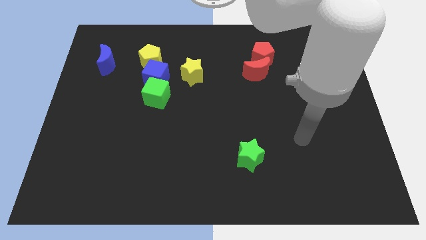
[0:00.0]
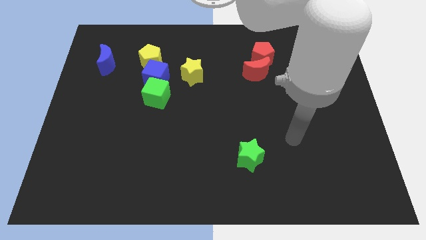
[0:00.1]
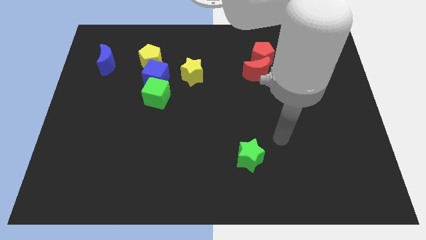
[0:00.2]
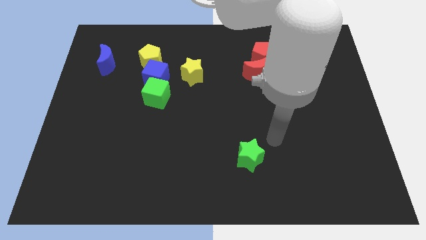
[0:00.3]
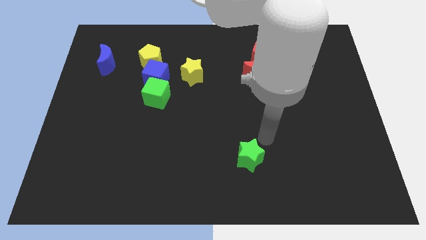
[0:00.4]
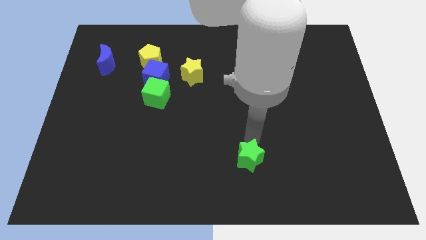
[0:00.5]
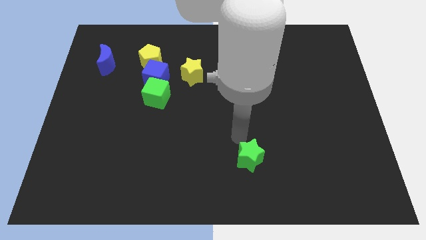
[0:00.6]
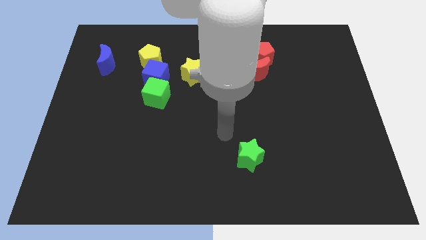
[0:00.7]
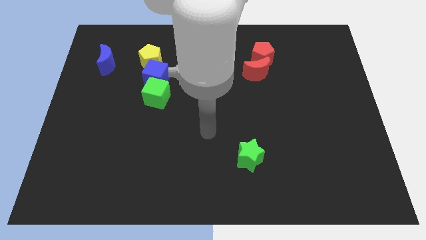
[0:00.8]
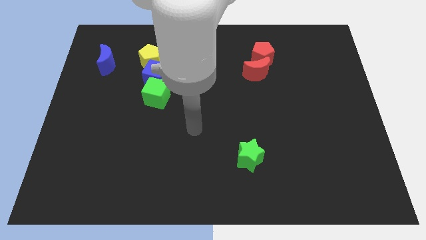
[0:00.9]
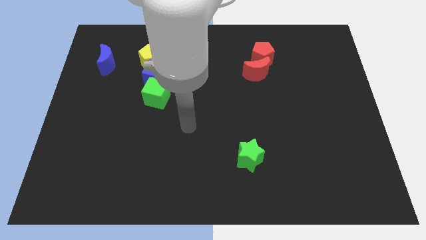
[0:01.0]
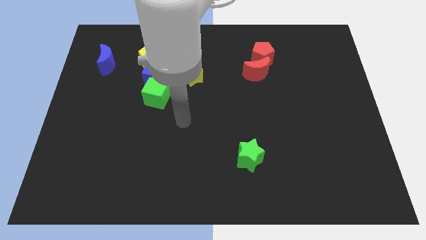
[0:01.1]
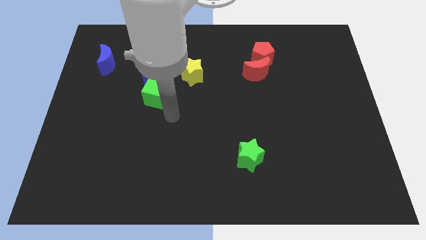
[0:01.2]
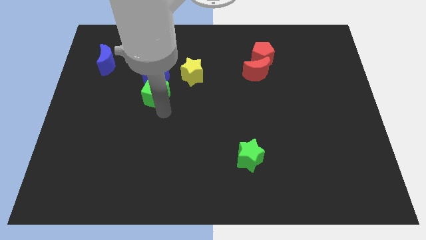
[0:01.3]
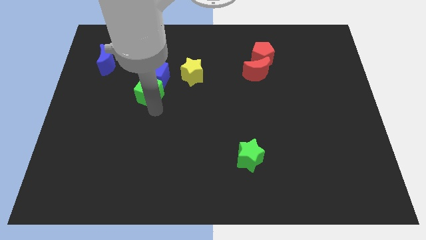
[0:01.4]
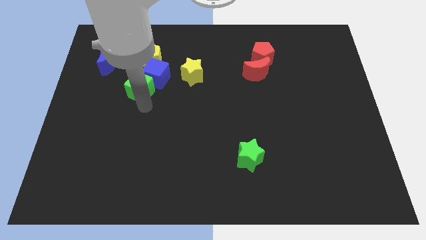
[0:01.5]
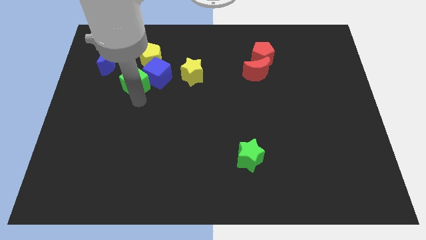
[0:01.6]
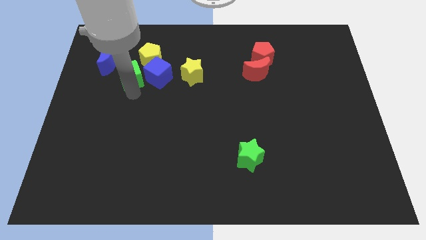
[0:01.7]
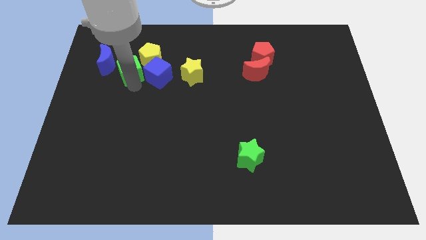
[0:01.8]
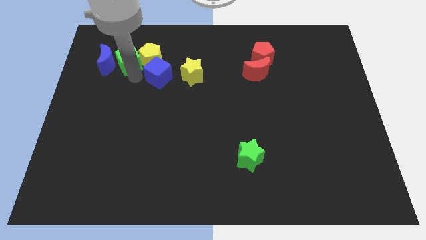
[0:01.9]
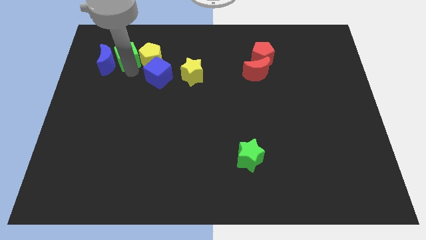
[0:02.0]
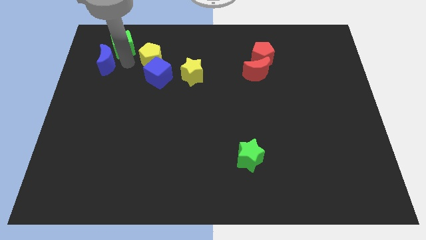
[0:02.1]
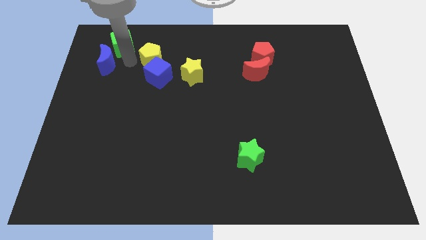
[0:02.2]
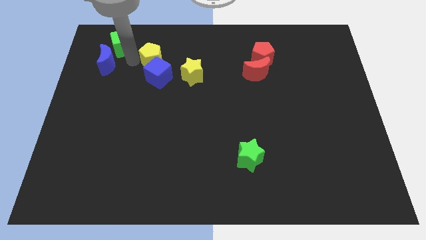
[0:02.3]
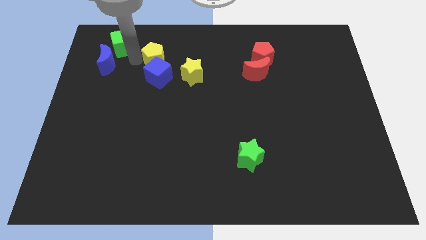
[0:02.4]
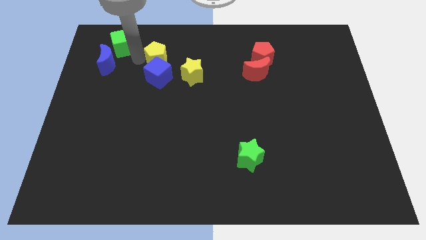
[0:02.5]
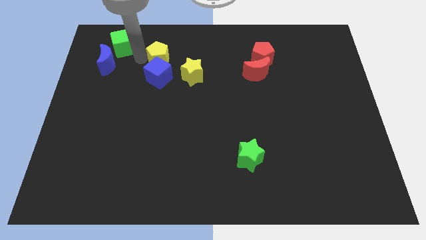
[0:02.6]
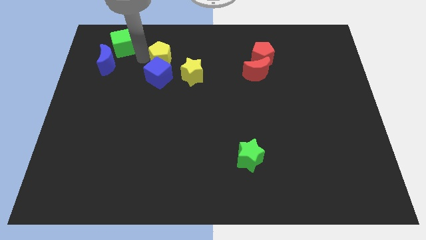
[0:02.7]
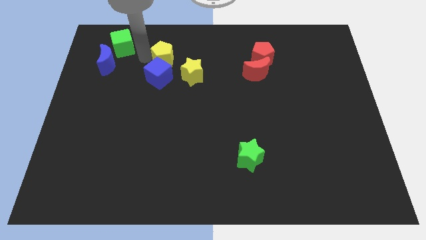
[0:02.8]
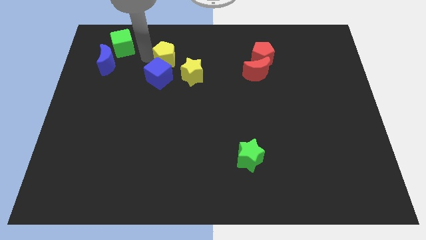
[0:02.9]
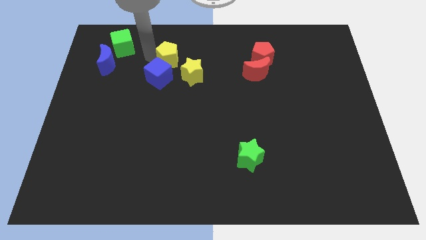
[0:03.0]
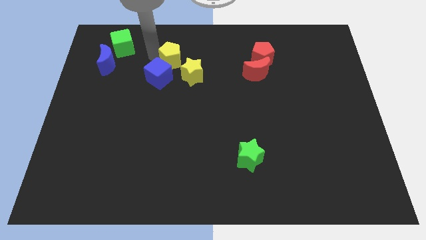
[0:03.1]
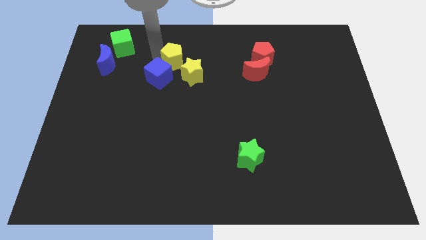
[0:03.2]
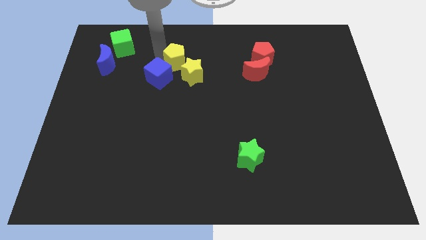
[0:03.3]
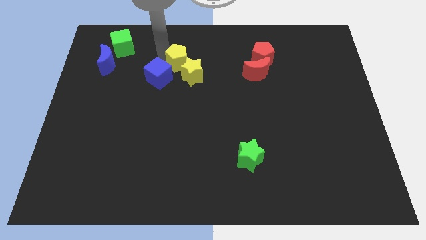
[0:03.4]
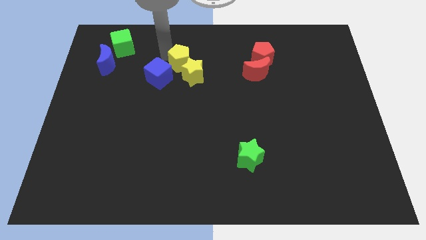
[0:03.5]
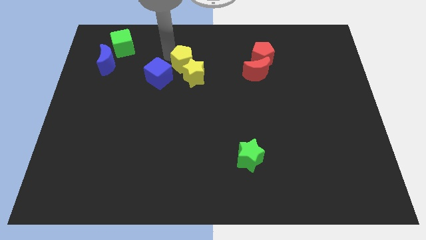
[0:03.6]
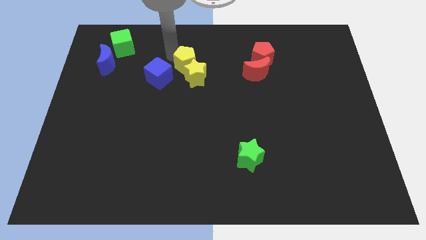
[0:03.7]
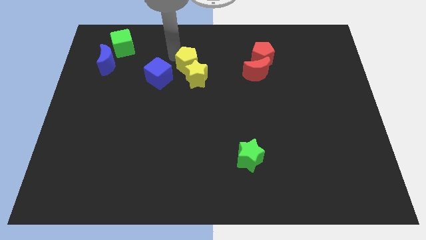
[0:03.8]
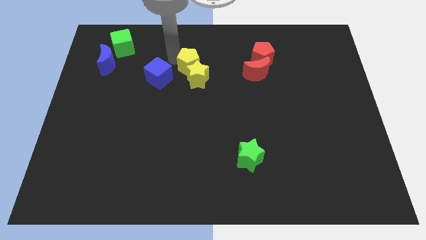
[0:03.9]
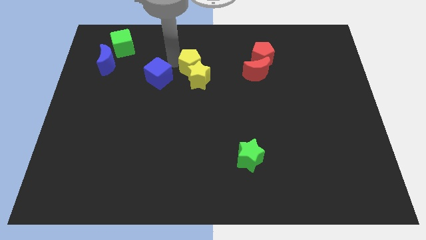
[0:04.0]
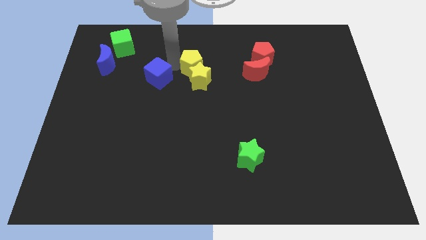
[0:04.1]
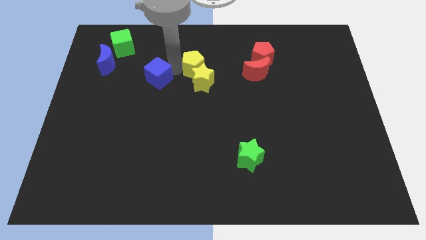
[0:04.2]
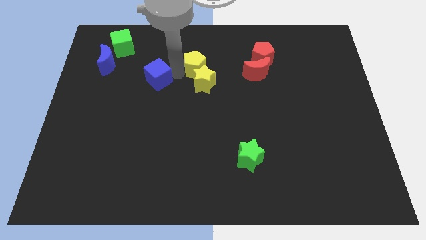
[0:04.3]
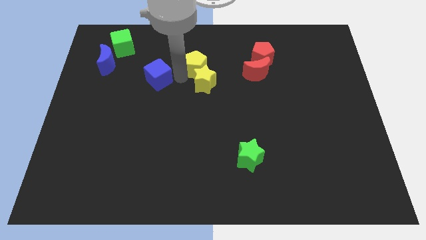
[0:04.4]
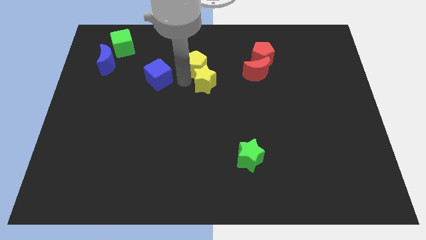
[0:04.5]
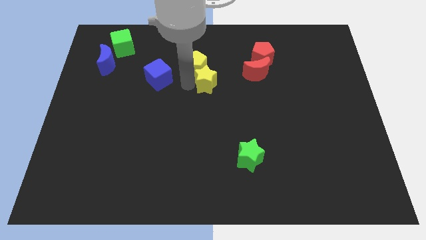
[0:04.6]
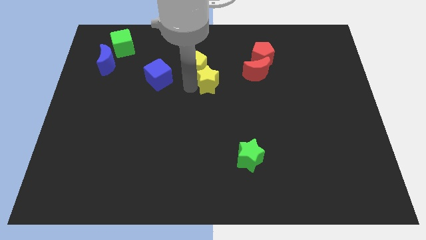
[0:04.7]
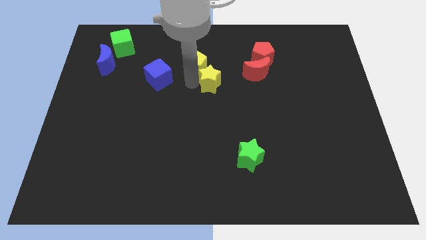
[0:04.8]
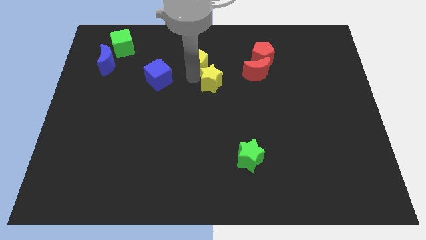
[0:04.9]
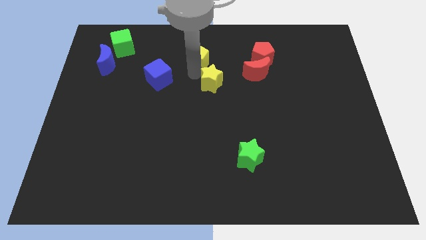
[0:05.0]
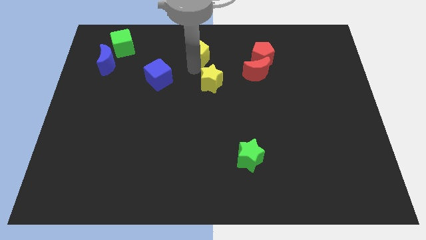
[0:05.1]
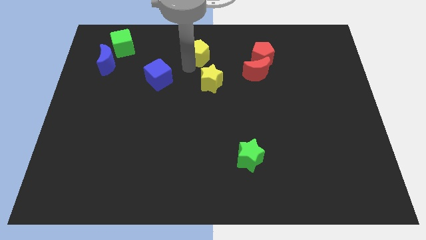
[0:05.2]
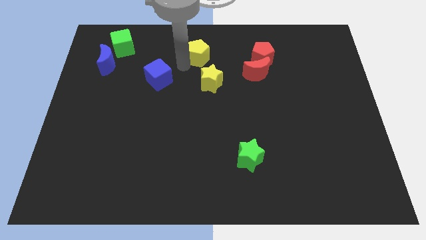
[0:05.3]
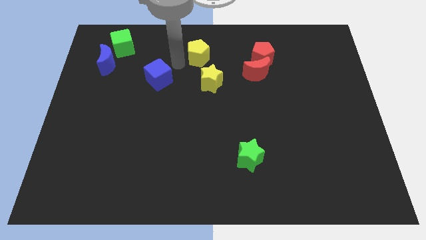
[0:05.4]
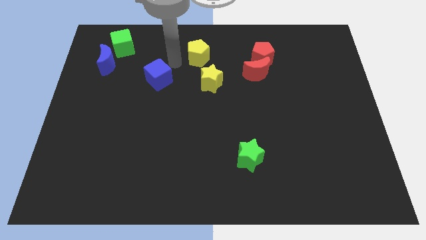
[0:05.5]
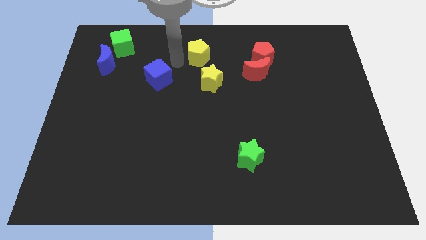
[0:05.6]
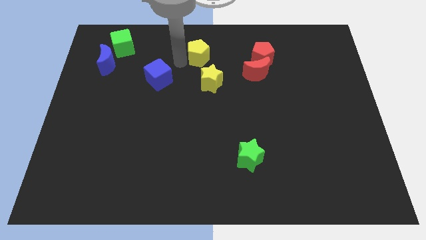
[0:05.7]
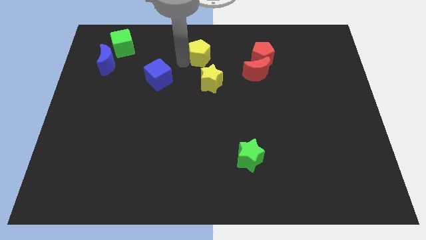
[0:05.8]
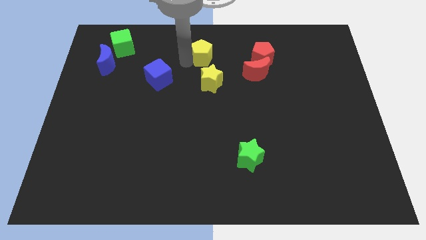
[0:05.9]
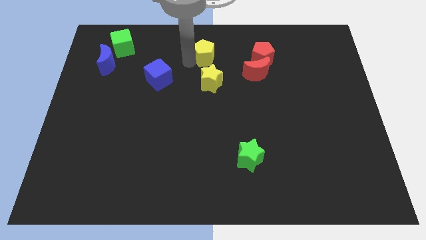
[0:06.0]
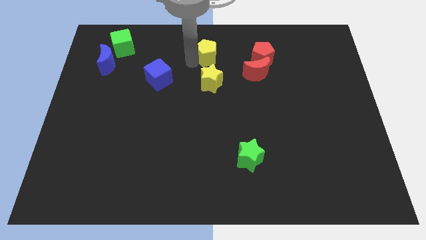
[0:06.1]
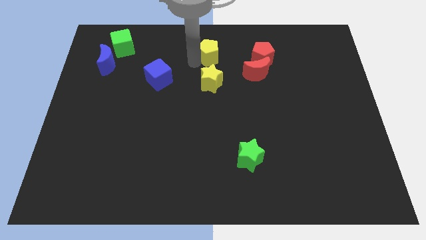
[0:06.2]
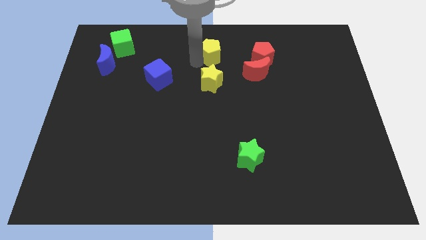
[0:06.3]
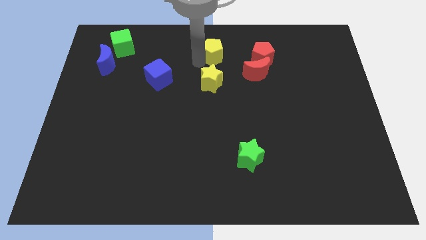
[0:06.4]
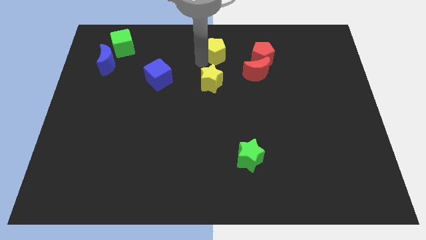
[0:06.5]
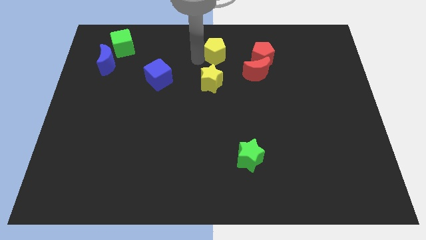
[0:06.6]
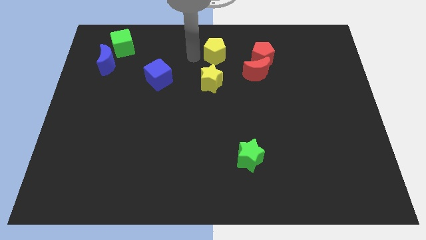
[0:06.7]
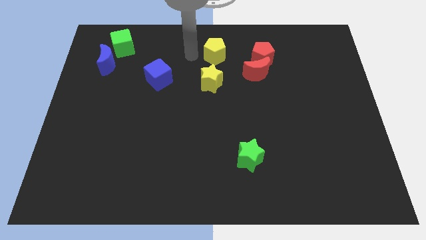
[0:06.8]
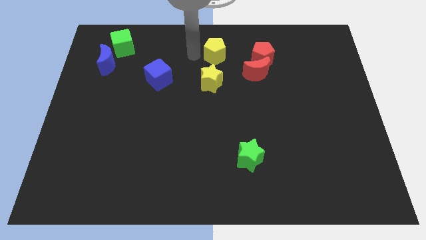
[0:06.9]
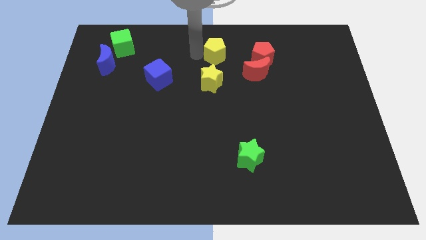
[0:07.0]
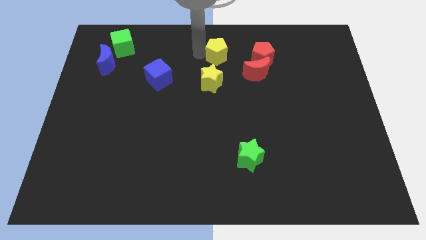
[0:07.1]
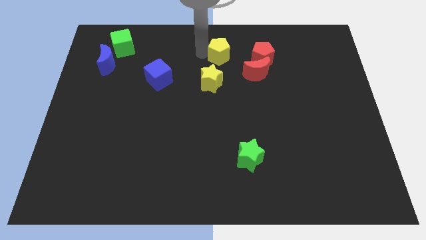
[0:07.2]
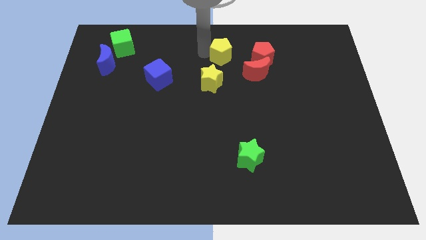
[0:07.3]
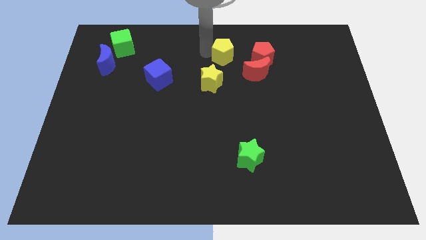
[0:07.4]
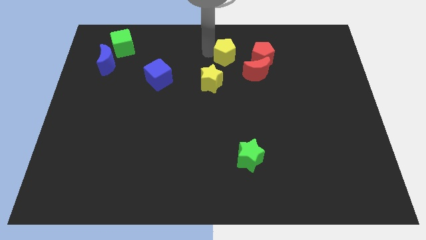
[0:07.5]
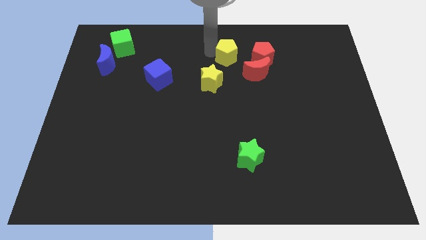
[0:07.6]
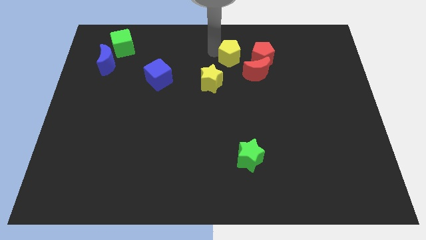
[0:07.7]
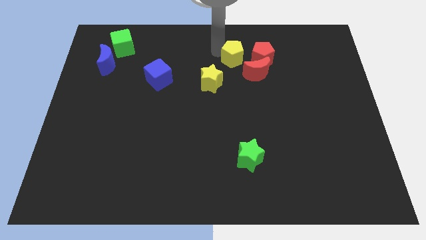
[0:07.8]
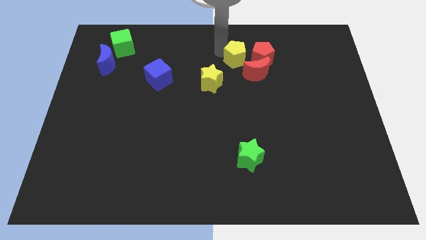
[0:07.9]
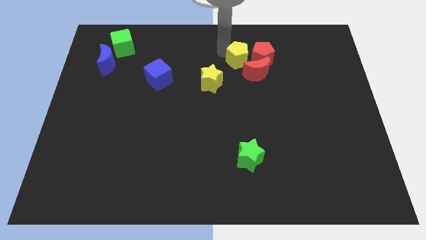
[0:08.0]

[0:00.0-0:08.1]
slide the yellow pentagon towards the red pentagon
